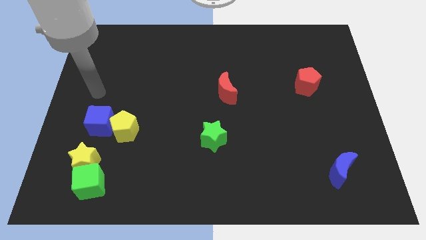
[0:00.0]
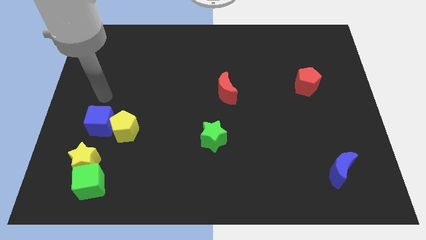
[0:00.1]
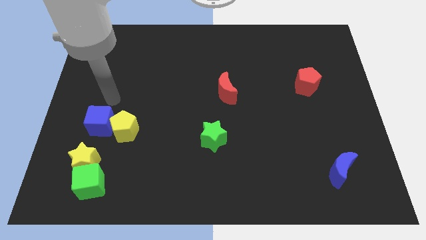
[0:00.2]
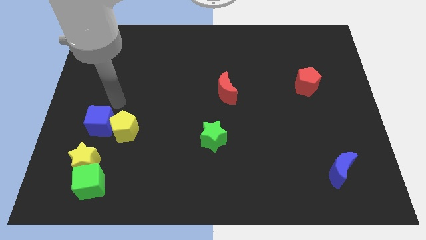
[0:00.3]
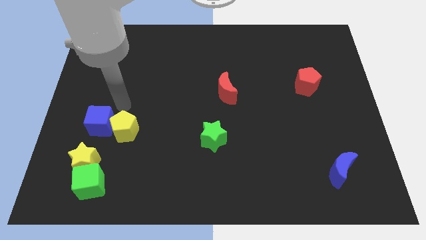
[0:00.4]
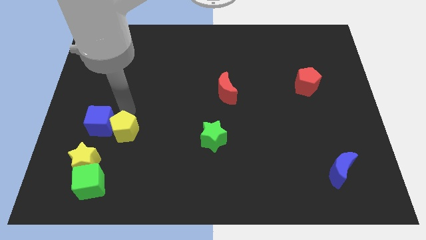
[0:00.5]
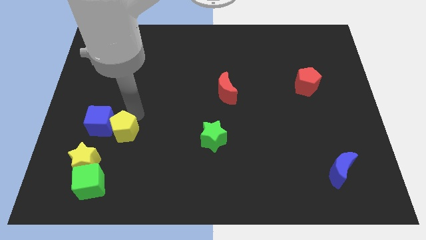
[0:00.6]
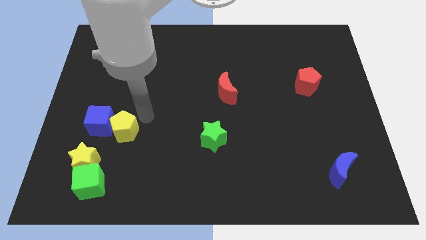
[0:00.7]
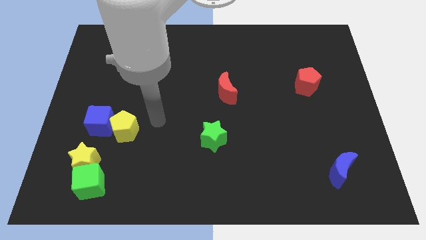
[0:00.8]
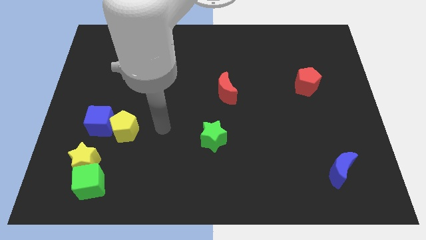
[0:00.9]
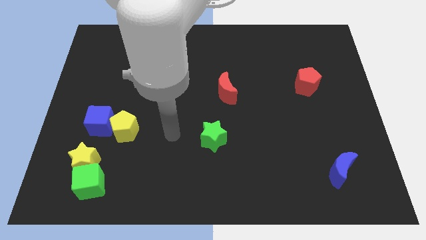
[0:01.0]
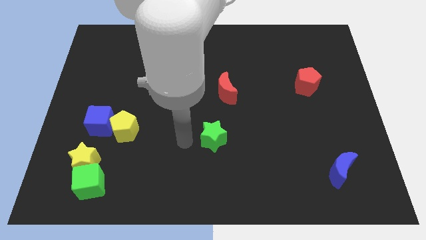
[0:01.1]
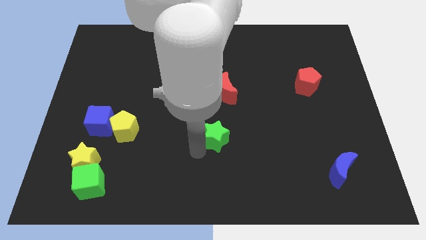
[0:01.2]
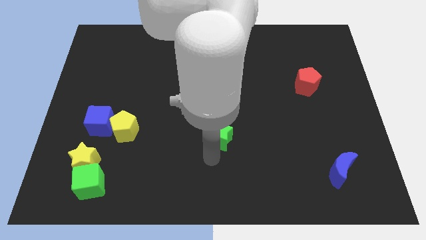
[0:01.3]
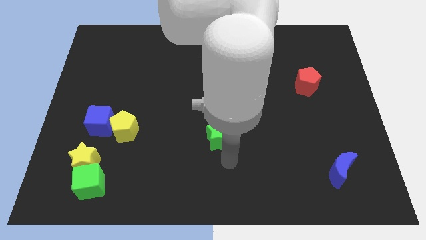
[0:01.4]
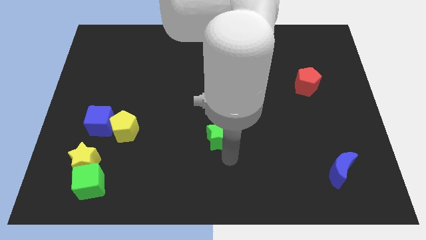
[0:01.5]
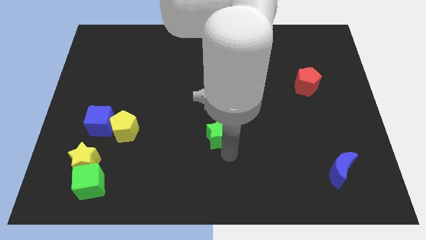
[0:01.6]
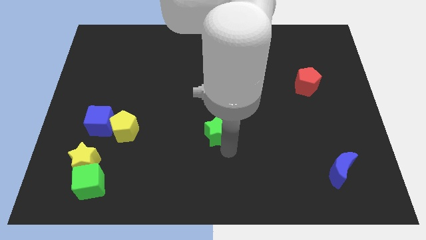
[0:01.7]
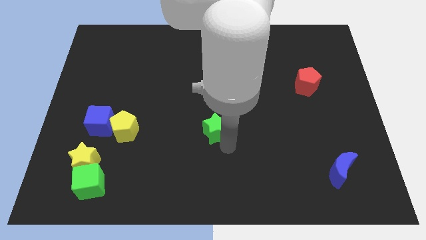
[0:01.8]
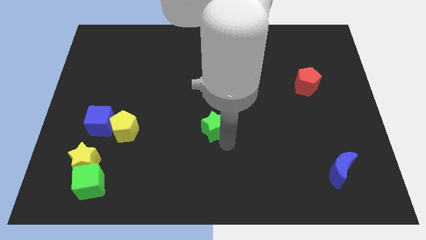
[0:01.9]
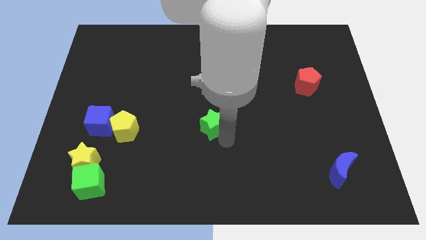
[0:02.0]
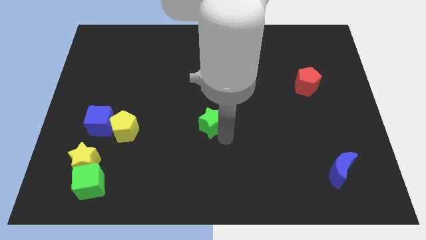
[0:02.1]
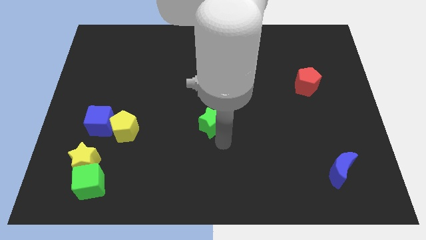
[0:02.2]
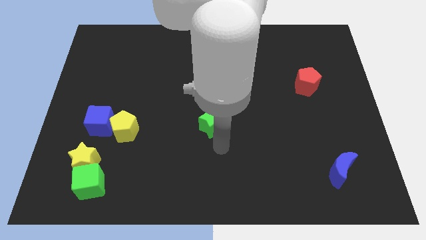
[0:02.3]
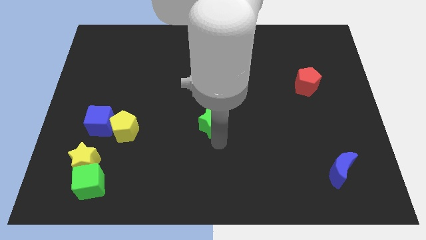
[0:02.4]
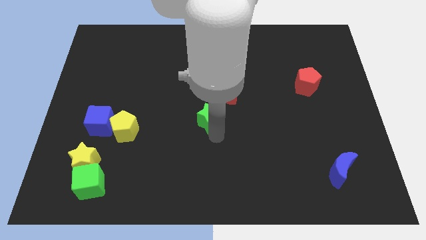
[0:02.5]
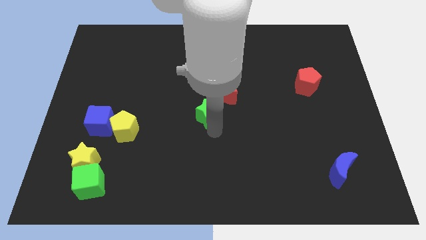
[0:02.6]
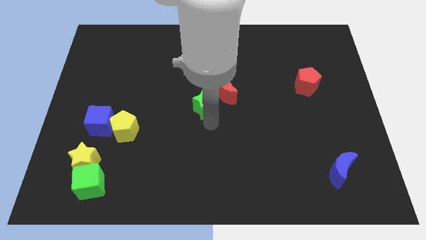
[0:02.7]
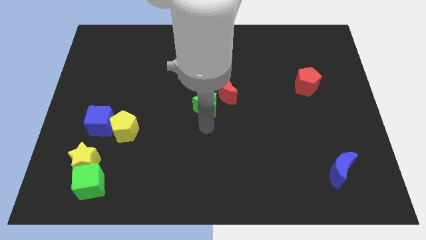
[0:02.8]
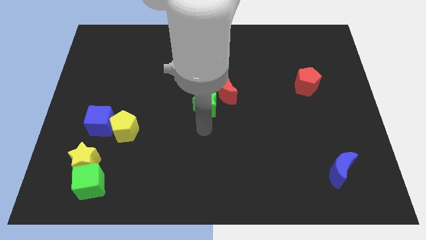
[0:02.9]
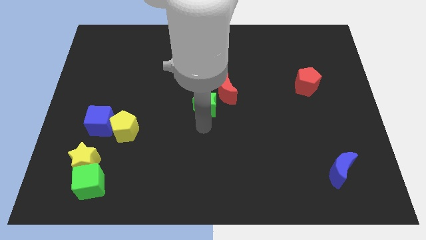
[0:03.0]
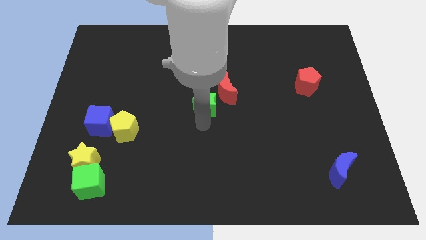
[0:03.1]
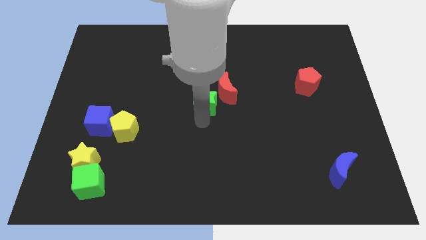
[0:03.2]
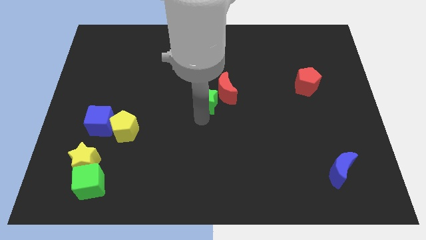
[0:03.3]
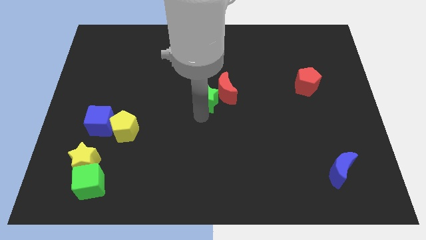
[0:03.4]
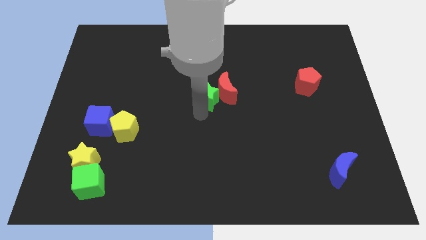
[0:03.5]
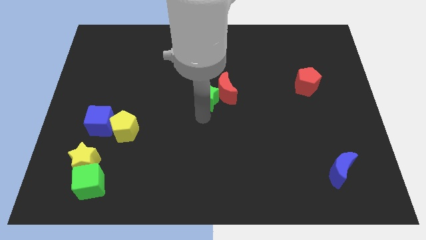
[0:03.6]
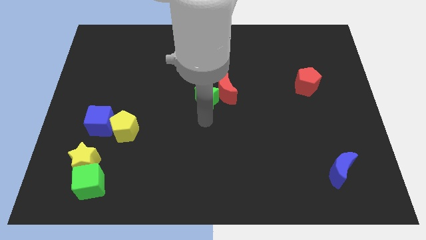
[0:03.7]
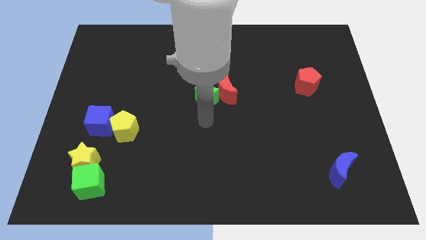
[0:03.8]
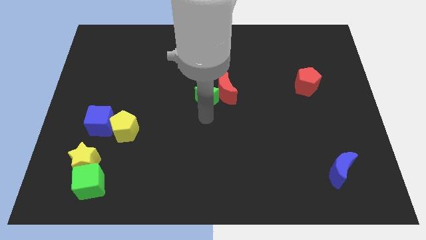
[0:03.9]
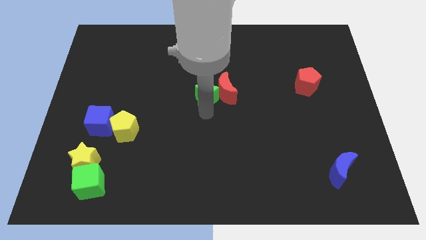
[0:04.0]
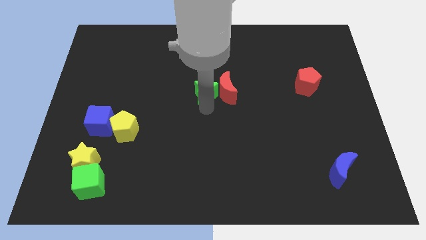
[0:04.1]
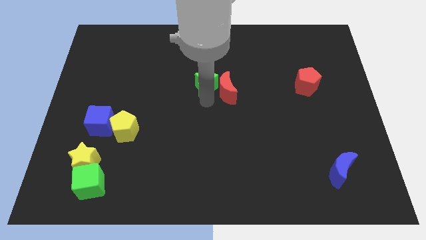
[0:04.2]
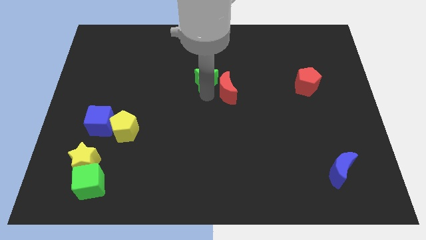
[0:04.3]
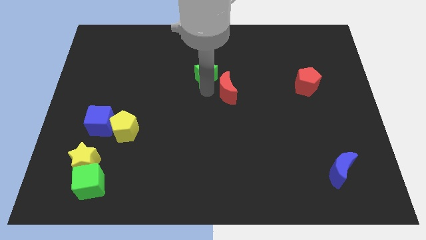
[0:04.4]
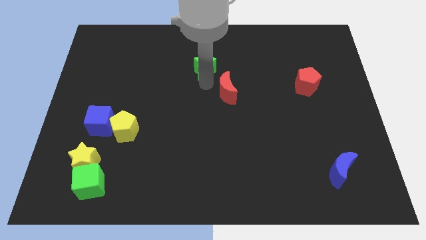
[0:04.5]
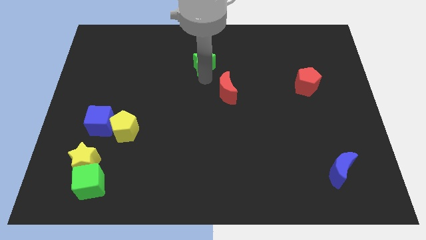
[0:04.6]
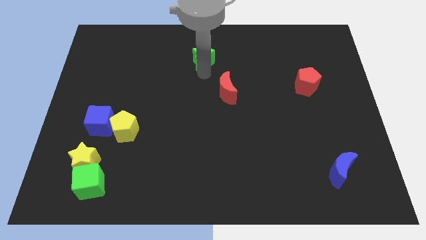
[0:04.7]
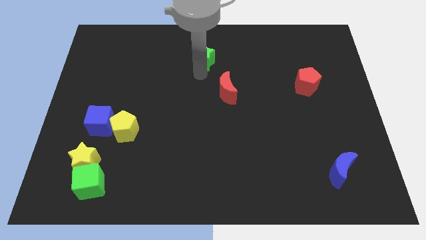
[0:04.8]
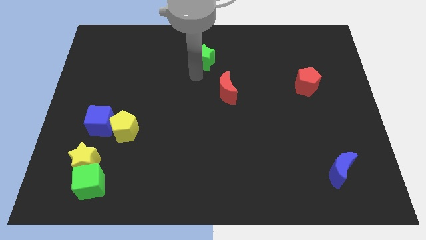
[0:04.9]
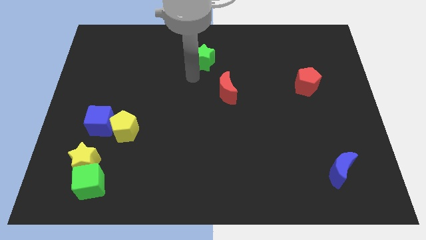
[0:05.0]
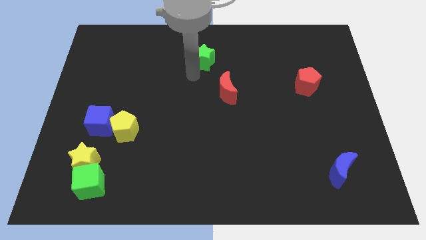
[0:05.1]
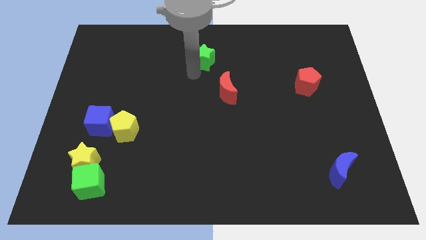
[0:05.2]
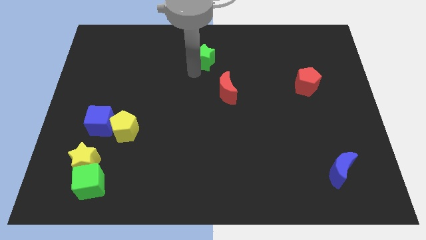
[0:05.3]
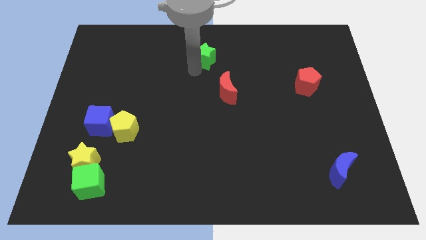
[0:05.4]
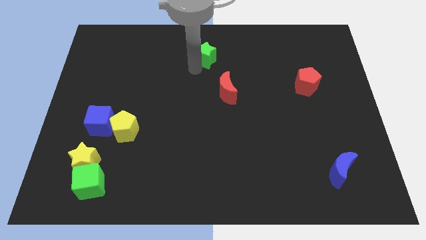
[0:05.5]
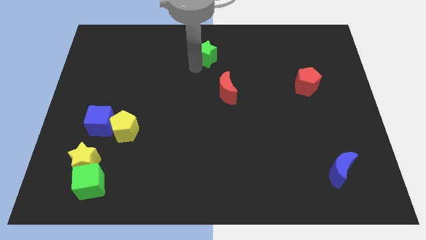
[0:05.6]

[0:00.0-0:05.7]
slide the green star to the towards your base
